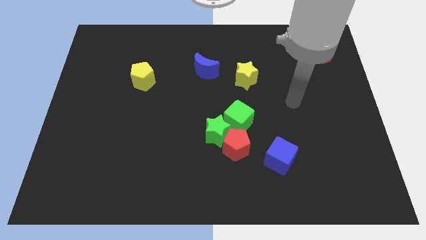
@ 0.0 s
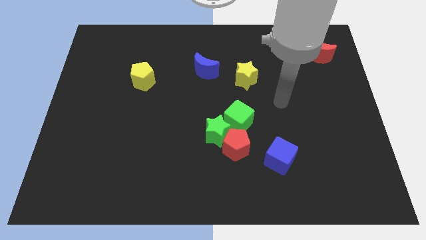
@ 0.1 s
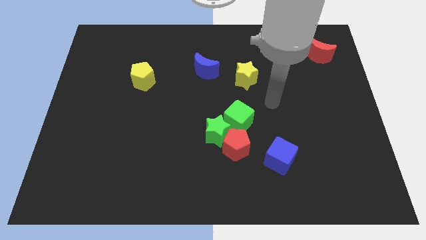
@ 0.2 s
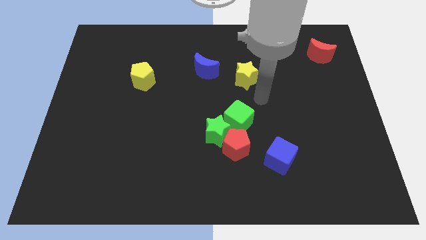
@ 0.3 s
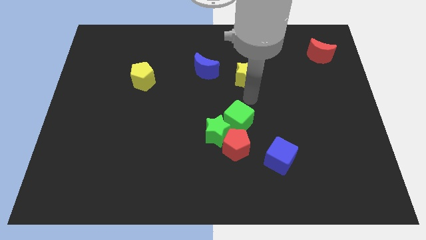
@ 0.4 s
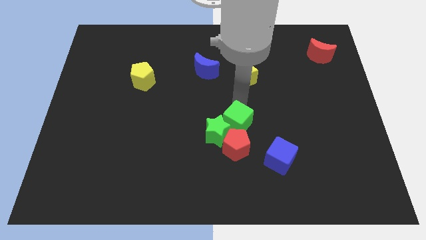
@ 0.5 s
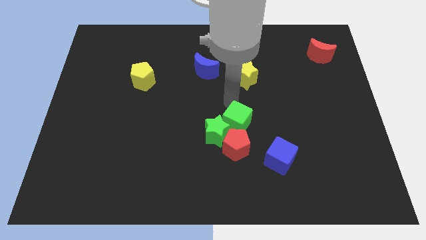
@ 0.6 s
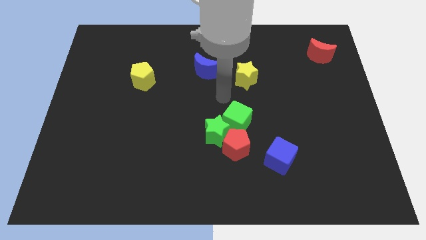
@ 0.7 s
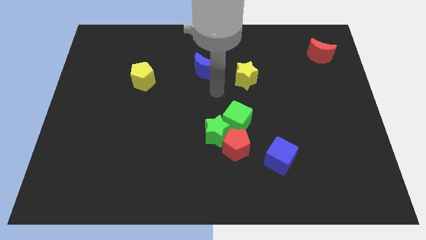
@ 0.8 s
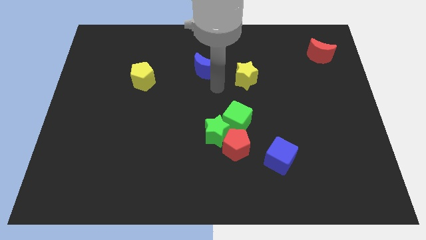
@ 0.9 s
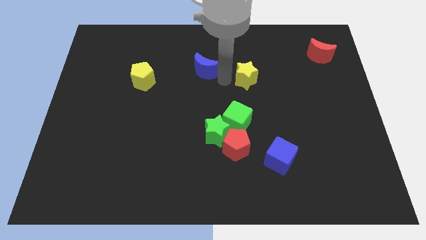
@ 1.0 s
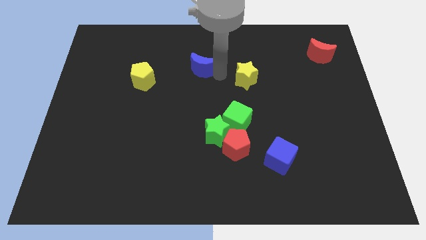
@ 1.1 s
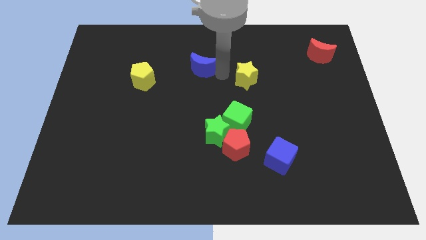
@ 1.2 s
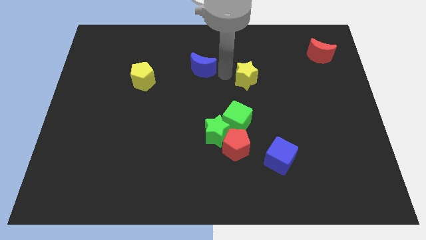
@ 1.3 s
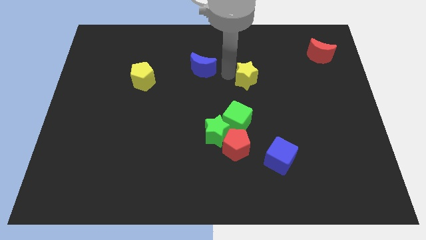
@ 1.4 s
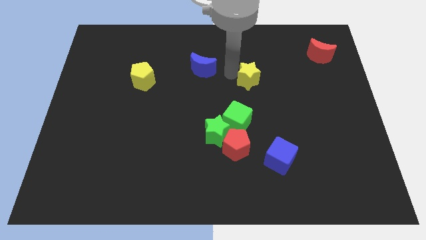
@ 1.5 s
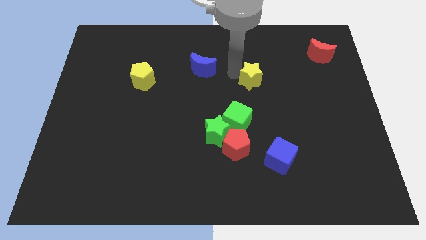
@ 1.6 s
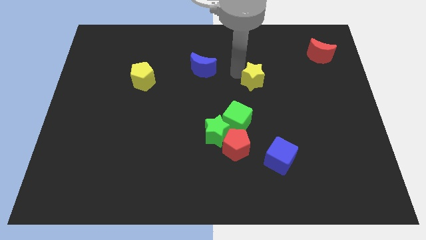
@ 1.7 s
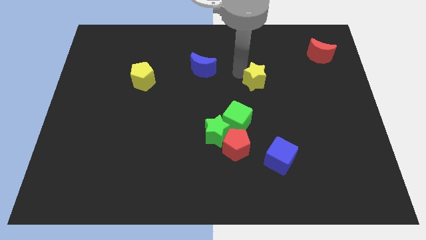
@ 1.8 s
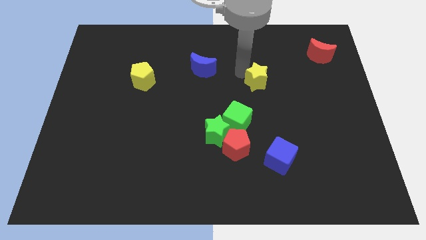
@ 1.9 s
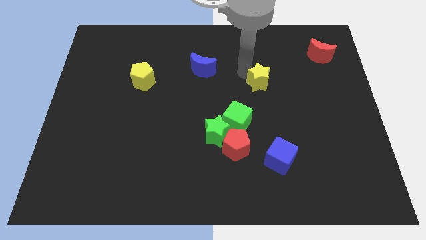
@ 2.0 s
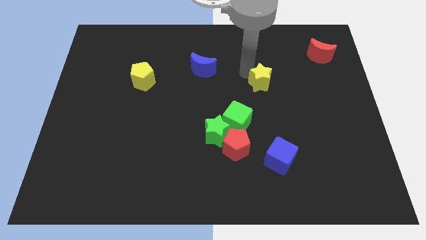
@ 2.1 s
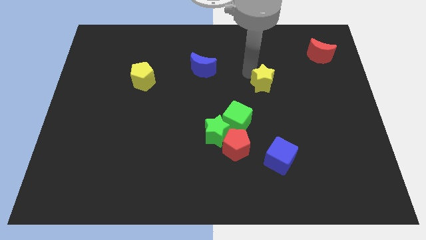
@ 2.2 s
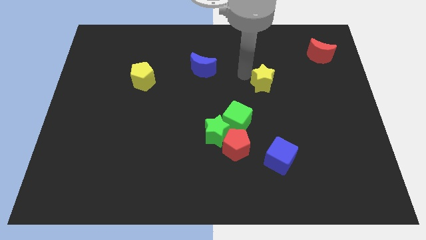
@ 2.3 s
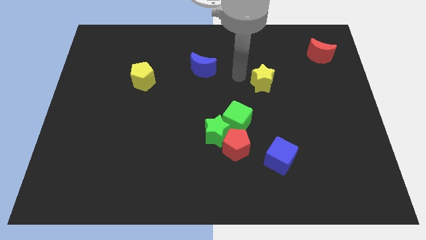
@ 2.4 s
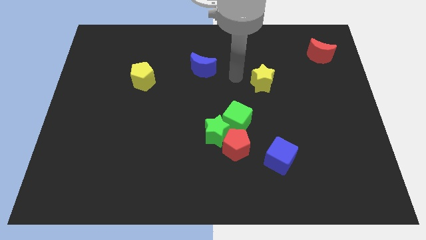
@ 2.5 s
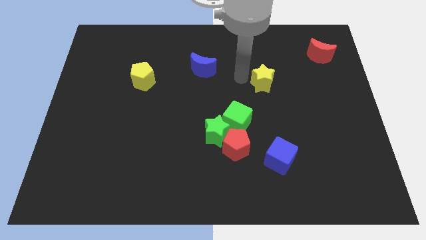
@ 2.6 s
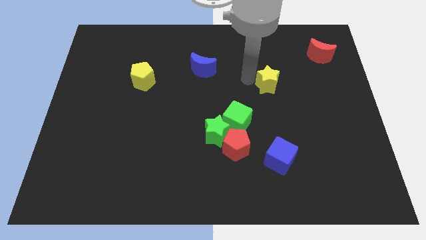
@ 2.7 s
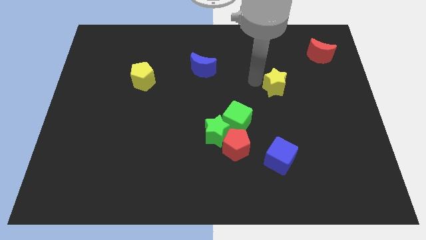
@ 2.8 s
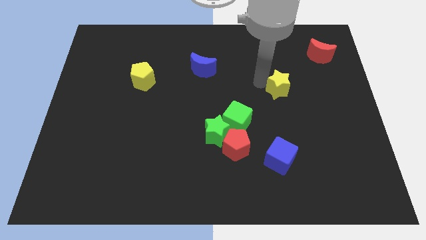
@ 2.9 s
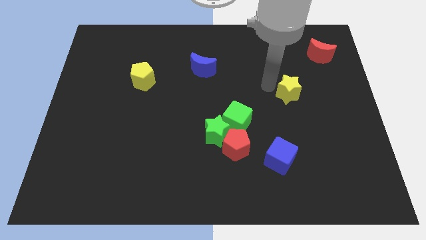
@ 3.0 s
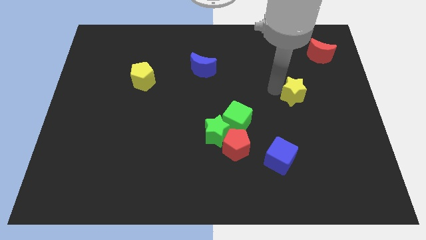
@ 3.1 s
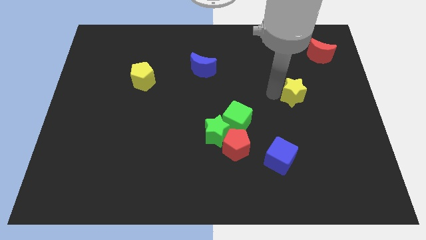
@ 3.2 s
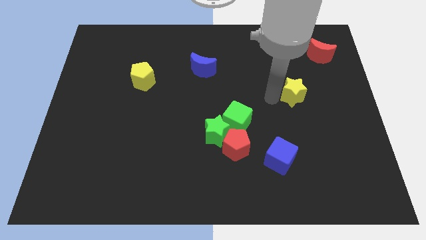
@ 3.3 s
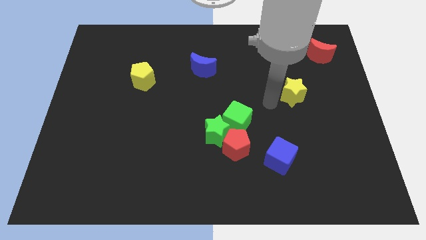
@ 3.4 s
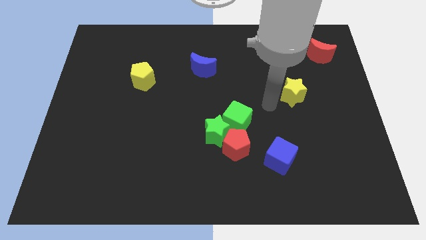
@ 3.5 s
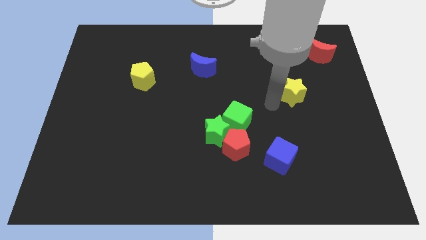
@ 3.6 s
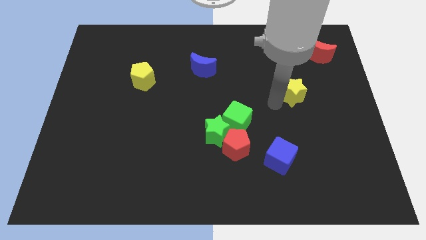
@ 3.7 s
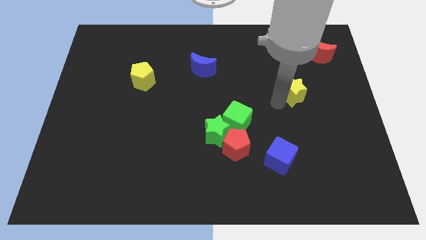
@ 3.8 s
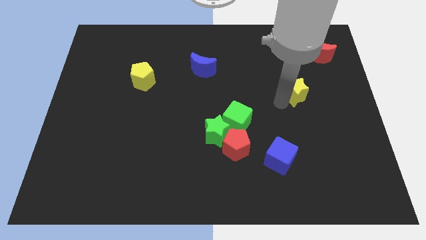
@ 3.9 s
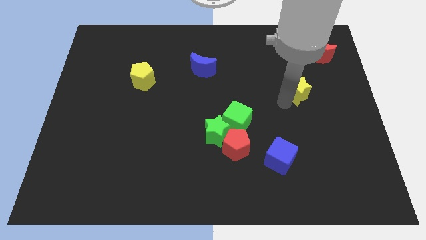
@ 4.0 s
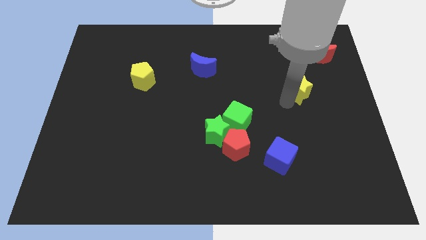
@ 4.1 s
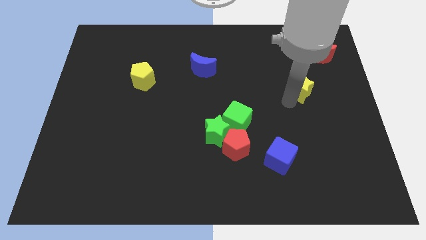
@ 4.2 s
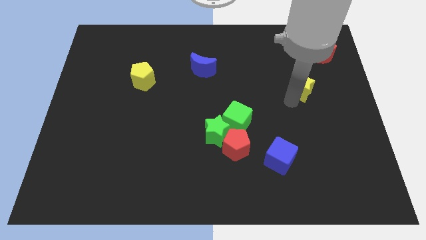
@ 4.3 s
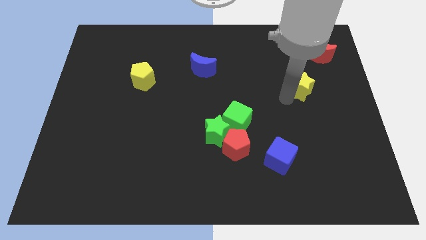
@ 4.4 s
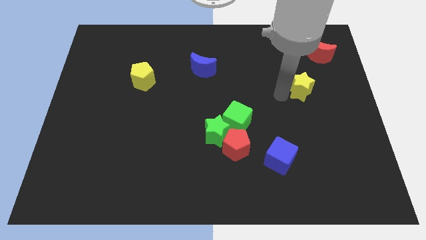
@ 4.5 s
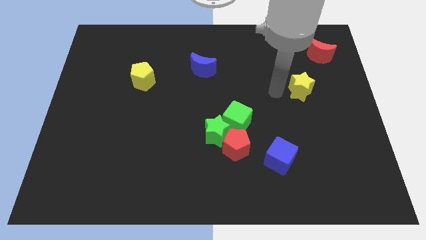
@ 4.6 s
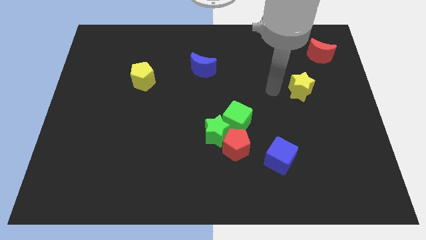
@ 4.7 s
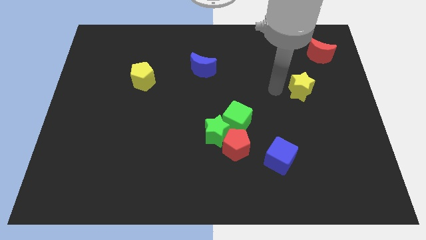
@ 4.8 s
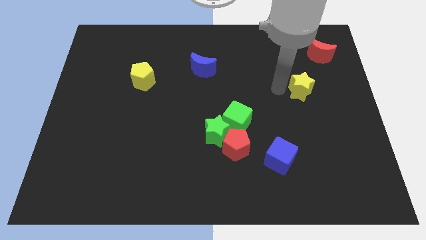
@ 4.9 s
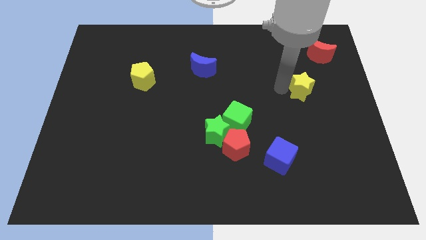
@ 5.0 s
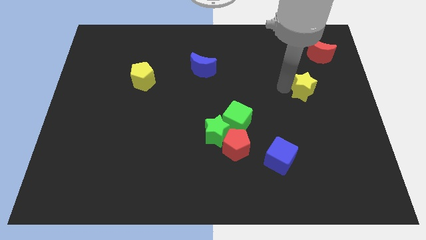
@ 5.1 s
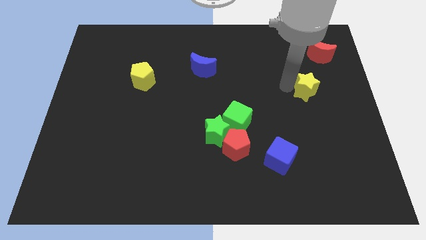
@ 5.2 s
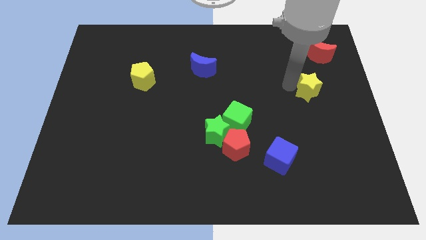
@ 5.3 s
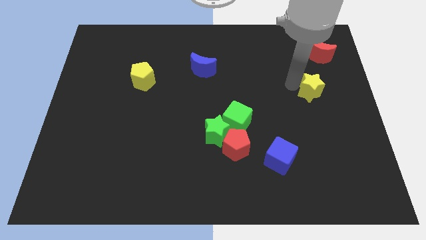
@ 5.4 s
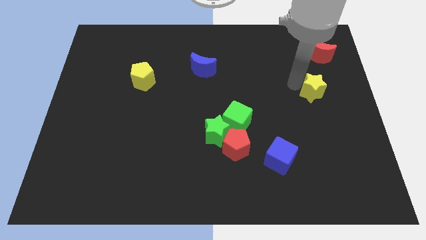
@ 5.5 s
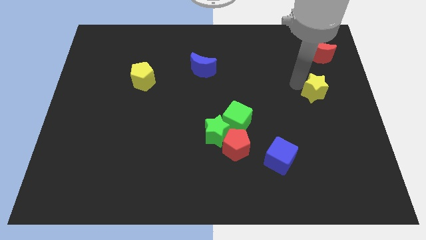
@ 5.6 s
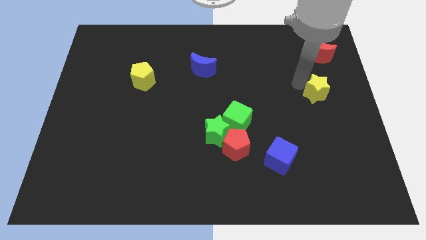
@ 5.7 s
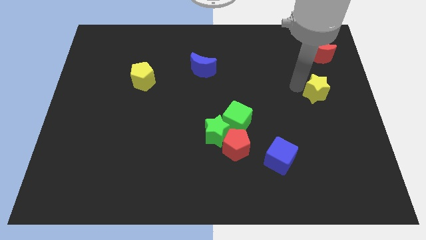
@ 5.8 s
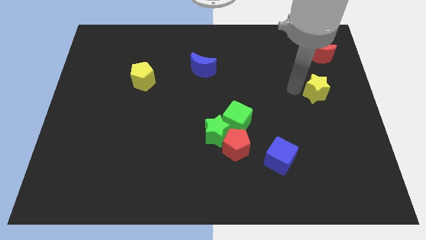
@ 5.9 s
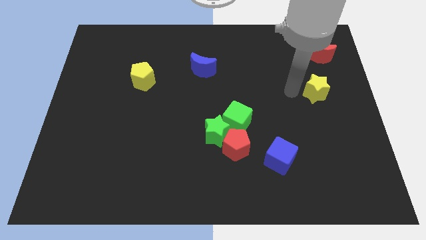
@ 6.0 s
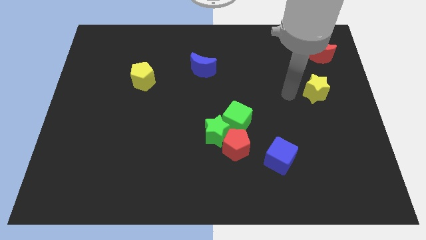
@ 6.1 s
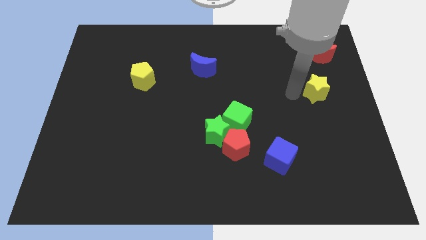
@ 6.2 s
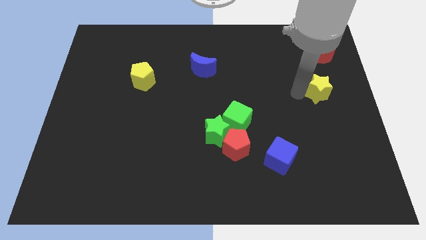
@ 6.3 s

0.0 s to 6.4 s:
slide the yellow star to the right side of the board
